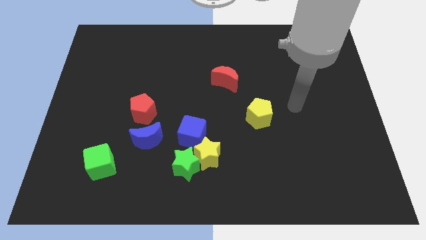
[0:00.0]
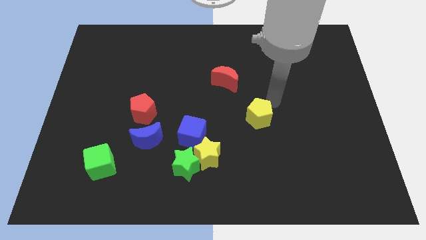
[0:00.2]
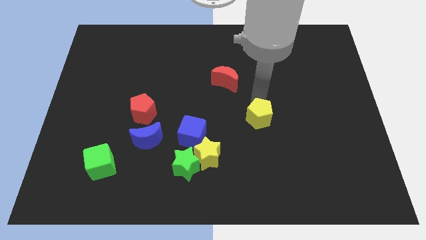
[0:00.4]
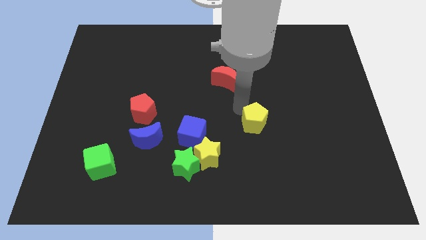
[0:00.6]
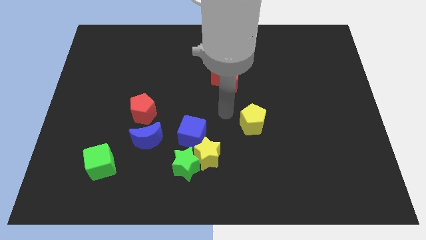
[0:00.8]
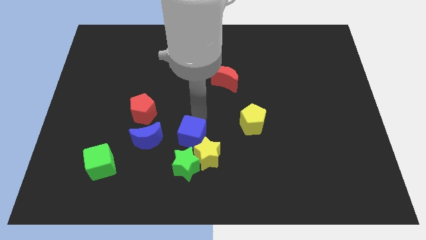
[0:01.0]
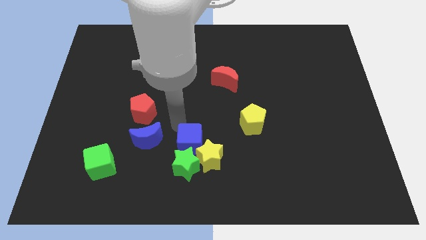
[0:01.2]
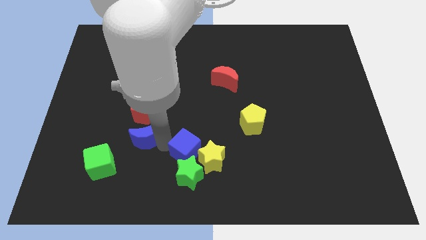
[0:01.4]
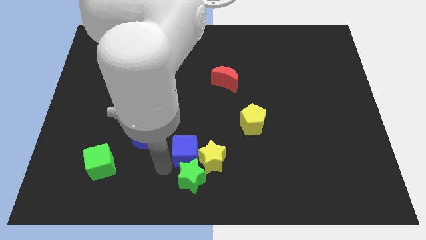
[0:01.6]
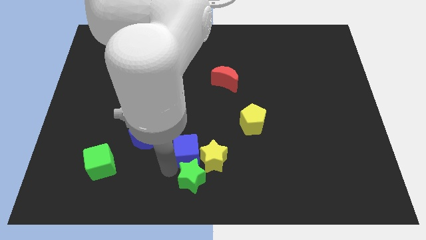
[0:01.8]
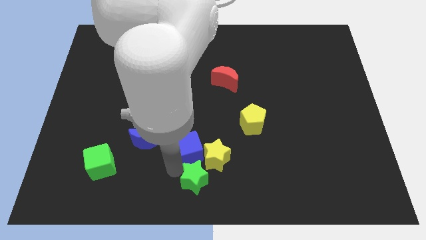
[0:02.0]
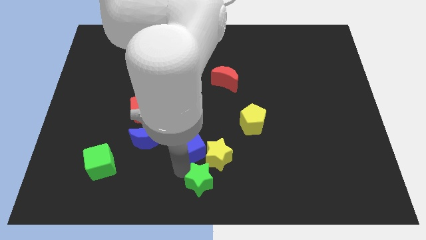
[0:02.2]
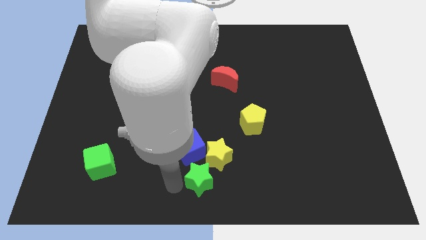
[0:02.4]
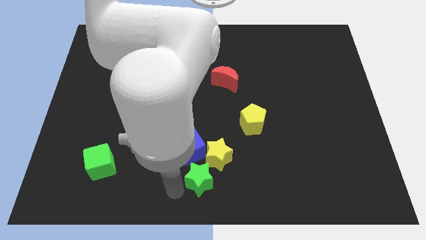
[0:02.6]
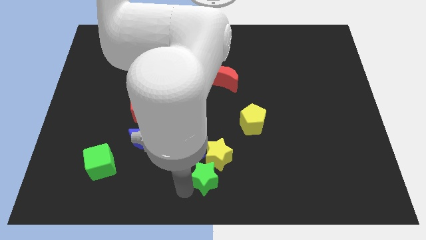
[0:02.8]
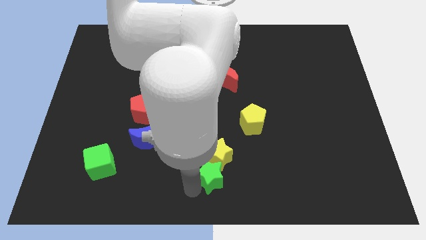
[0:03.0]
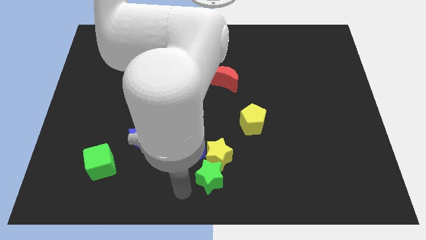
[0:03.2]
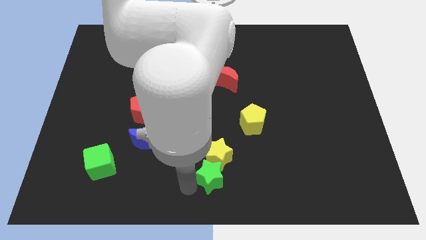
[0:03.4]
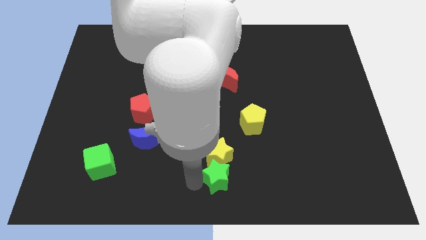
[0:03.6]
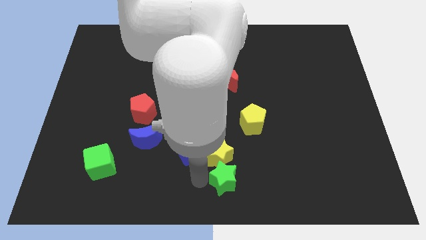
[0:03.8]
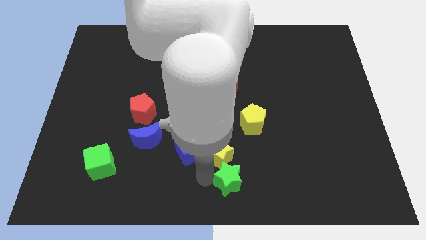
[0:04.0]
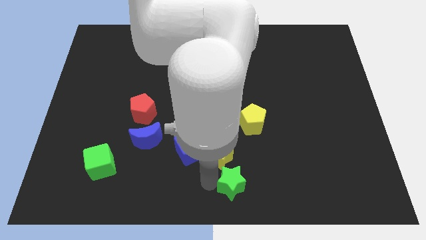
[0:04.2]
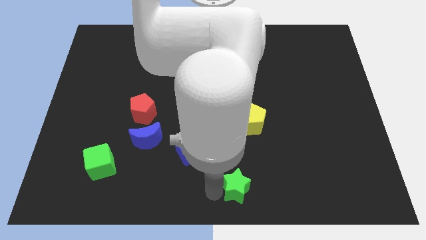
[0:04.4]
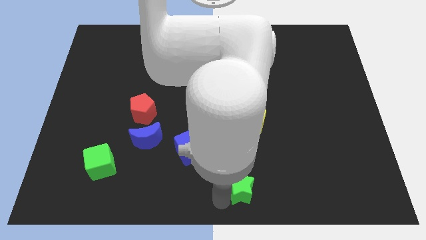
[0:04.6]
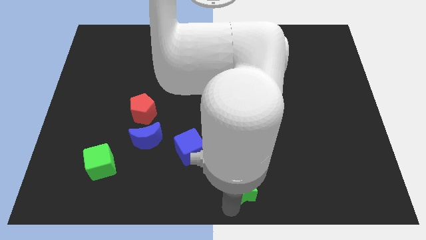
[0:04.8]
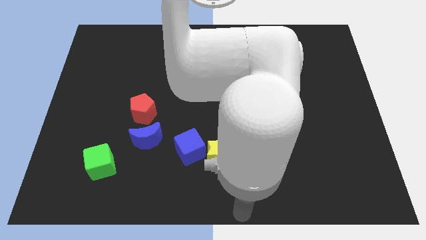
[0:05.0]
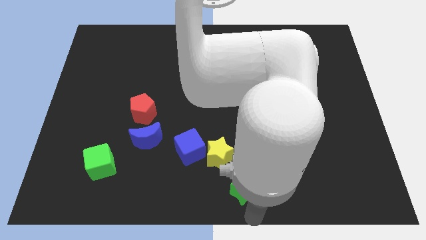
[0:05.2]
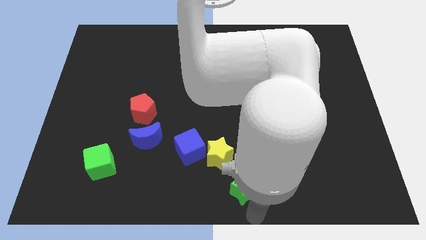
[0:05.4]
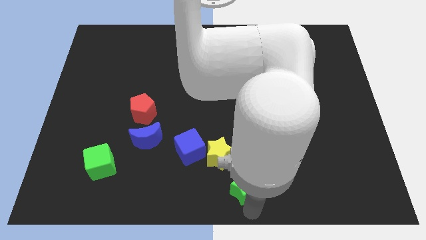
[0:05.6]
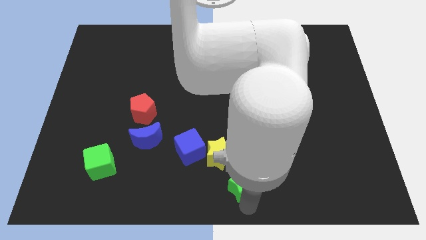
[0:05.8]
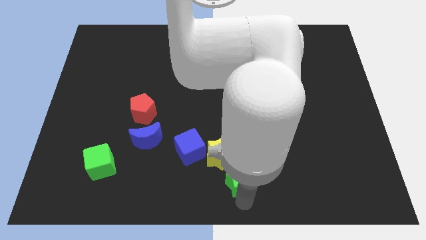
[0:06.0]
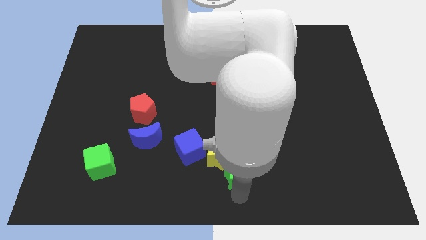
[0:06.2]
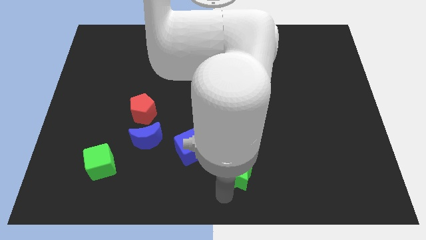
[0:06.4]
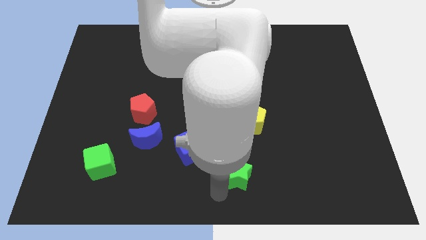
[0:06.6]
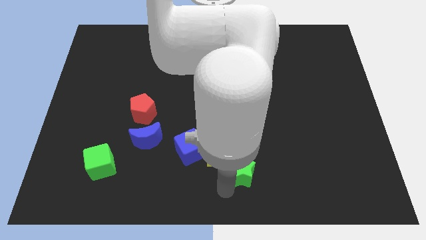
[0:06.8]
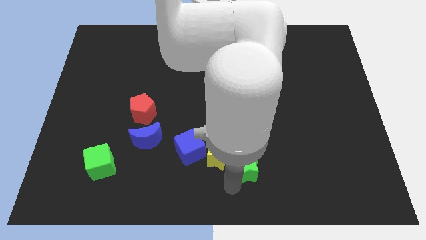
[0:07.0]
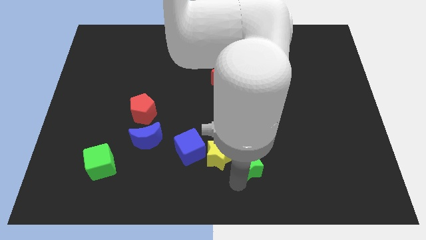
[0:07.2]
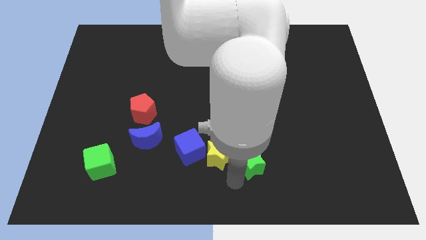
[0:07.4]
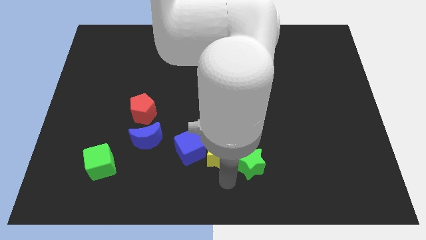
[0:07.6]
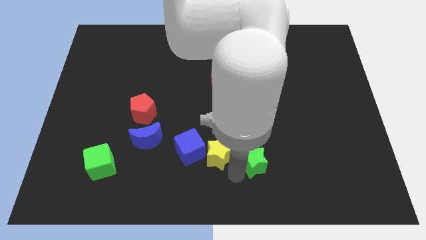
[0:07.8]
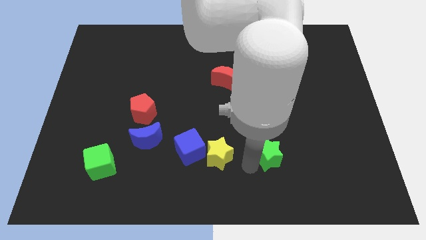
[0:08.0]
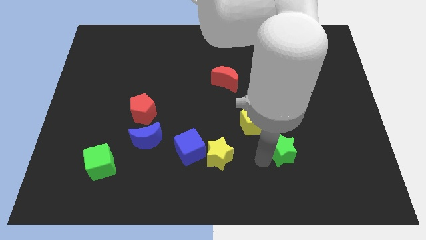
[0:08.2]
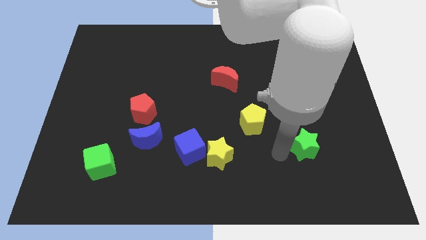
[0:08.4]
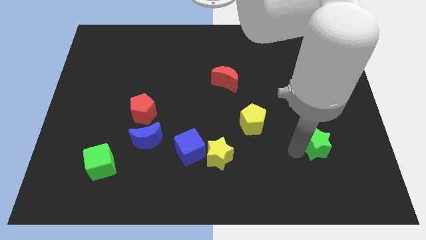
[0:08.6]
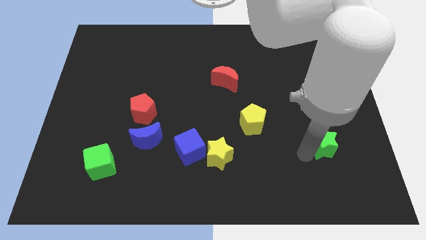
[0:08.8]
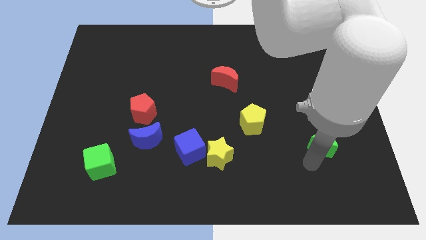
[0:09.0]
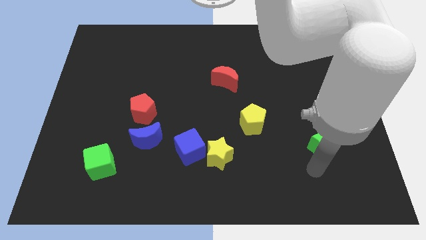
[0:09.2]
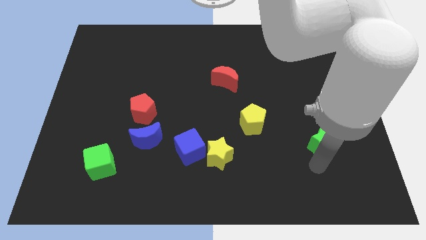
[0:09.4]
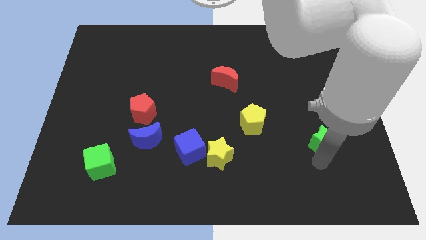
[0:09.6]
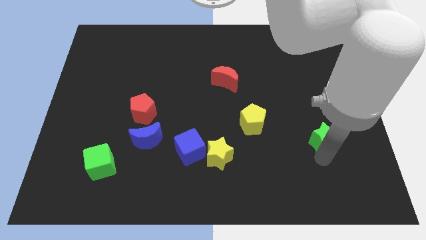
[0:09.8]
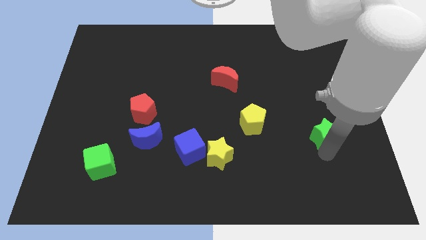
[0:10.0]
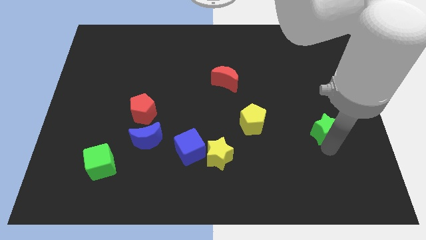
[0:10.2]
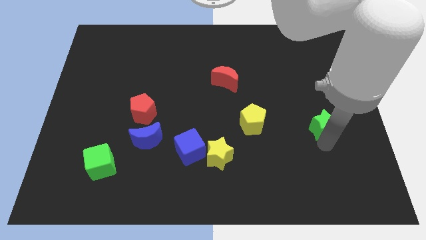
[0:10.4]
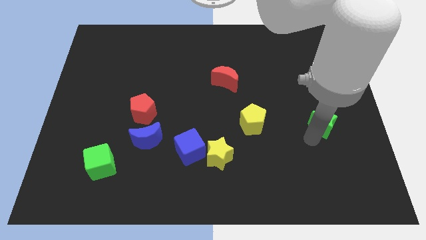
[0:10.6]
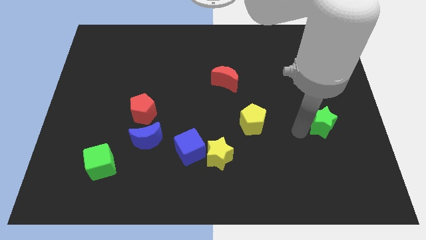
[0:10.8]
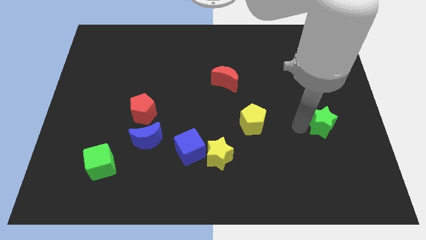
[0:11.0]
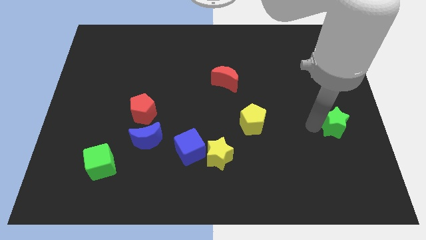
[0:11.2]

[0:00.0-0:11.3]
push the green star to the right side of the board

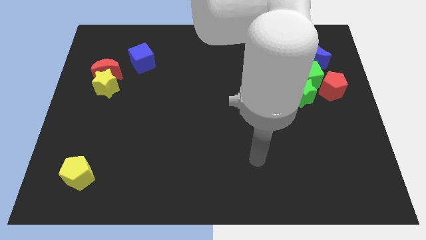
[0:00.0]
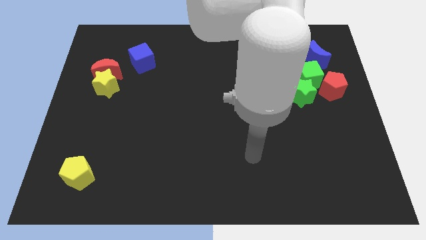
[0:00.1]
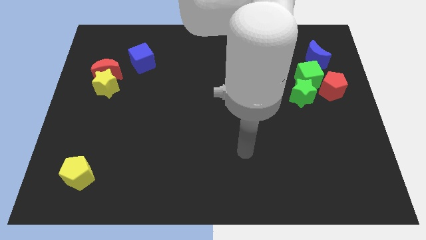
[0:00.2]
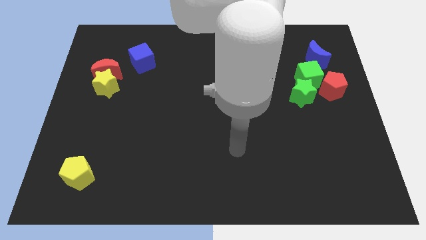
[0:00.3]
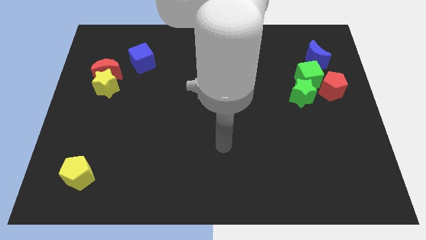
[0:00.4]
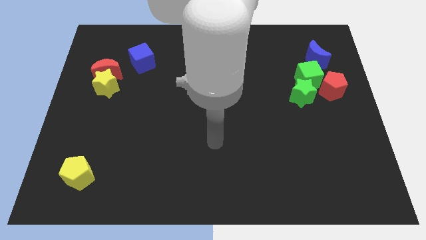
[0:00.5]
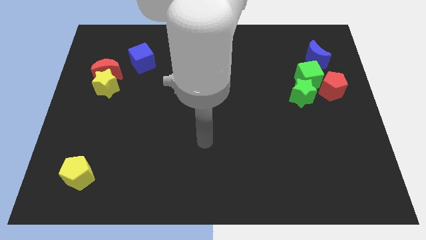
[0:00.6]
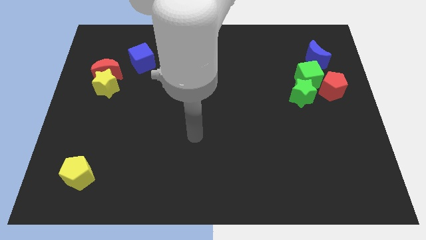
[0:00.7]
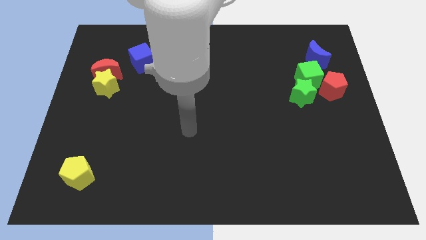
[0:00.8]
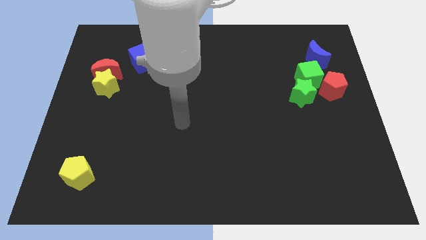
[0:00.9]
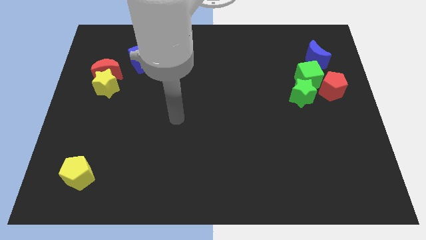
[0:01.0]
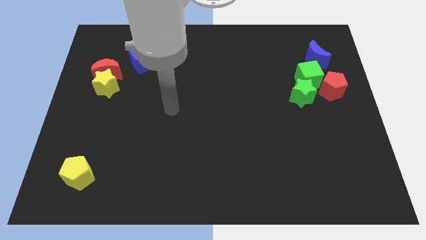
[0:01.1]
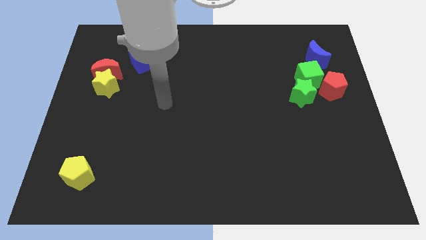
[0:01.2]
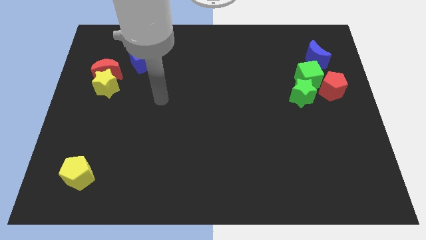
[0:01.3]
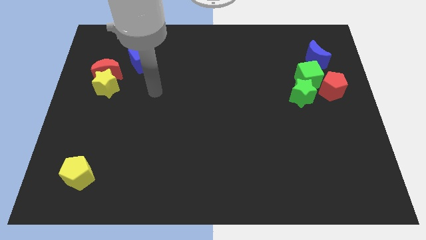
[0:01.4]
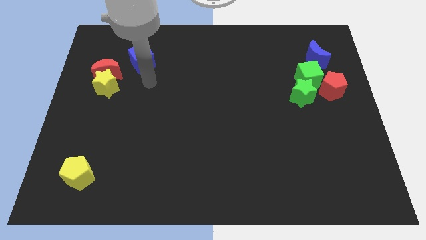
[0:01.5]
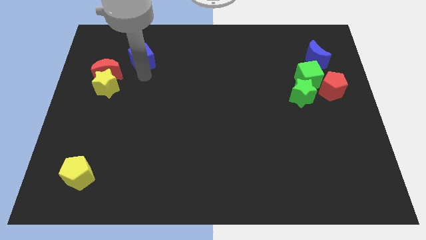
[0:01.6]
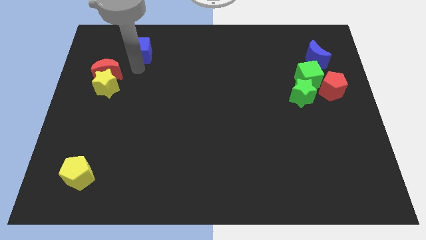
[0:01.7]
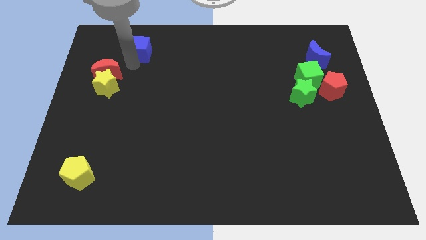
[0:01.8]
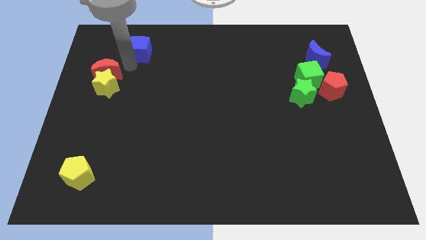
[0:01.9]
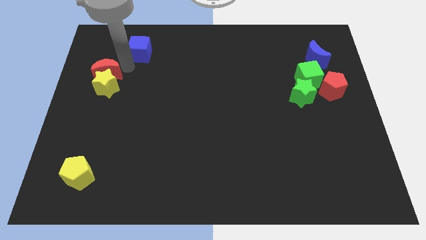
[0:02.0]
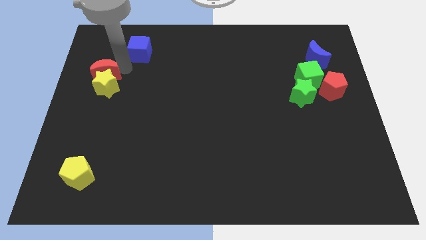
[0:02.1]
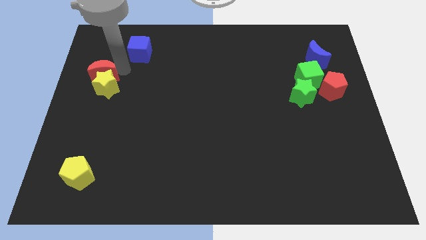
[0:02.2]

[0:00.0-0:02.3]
put the red moon to the center left
